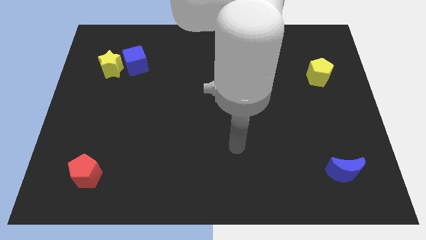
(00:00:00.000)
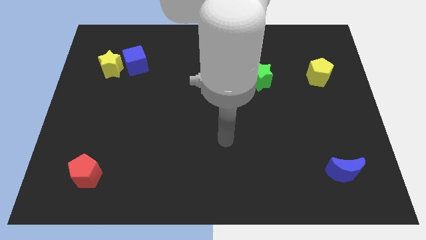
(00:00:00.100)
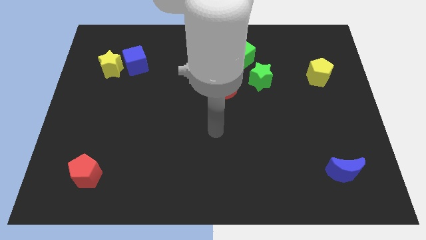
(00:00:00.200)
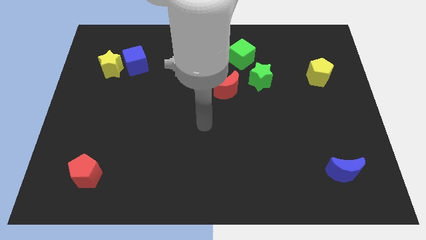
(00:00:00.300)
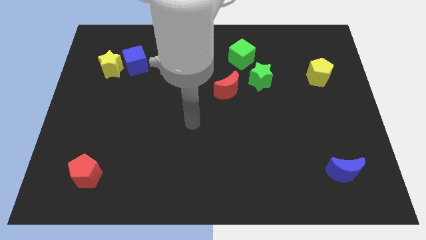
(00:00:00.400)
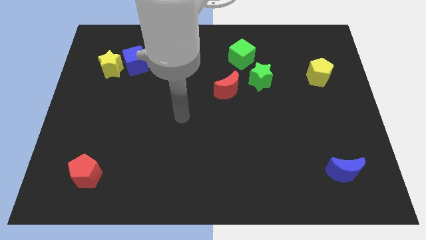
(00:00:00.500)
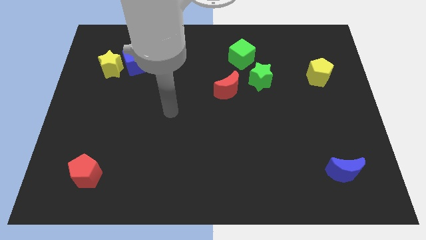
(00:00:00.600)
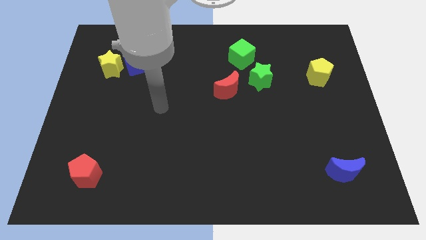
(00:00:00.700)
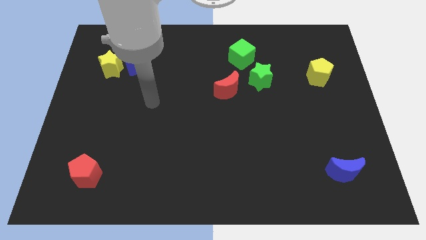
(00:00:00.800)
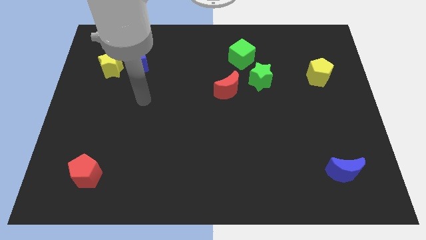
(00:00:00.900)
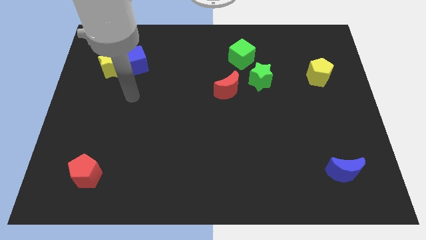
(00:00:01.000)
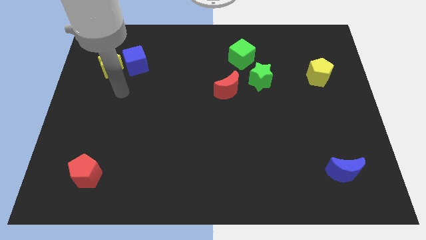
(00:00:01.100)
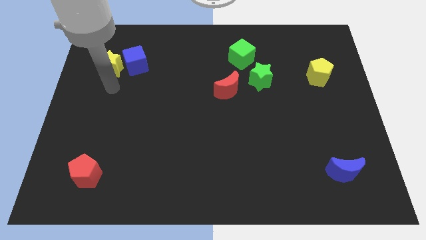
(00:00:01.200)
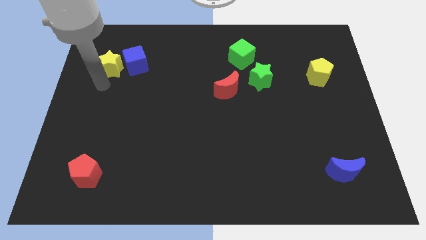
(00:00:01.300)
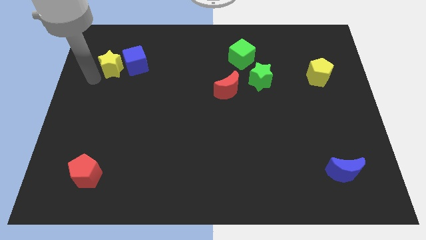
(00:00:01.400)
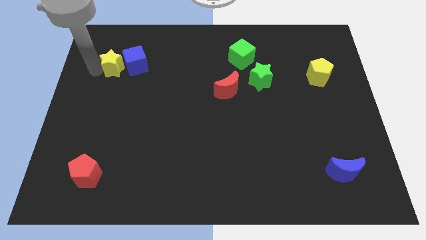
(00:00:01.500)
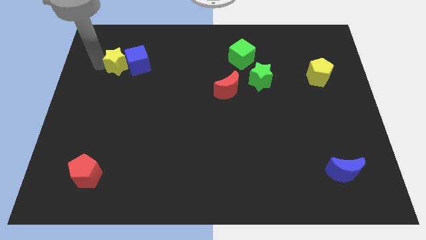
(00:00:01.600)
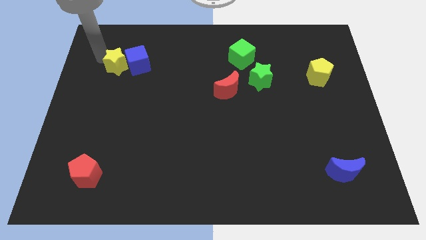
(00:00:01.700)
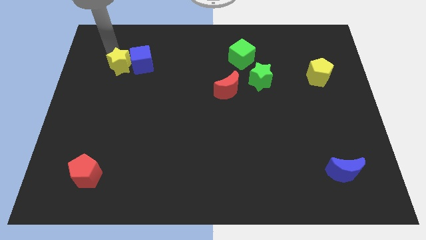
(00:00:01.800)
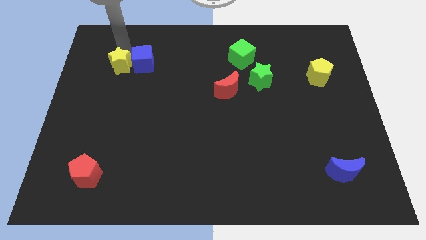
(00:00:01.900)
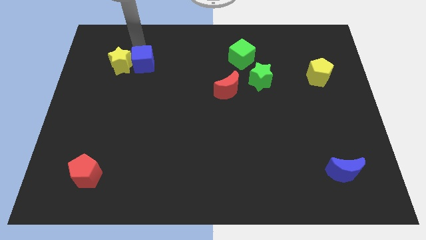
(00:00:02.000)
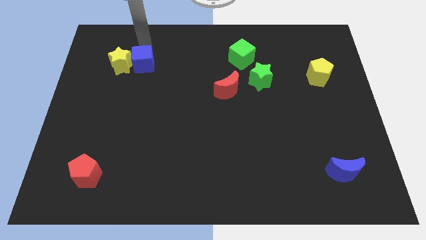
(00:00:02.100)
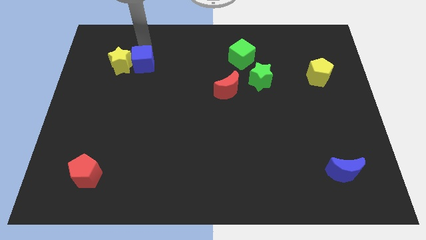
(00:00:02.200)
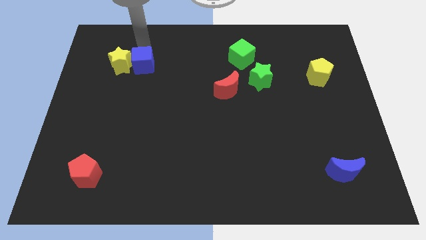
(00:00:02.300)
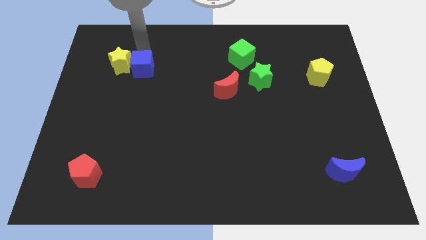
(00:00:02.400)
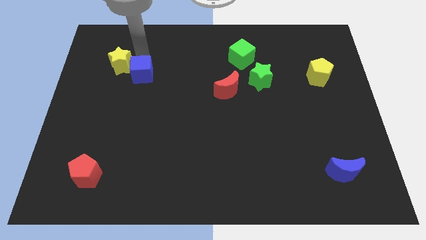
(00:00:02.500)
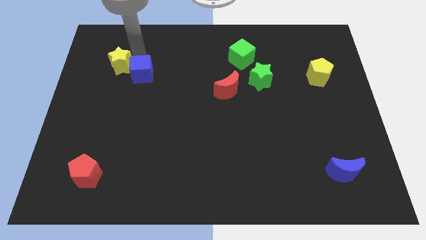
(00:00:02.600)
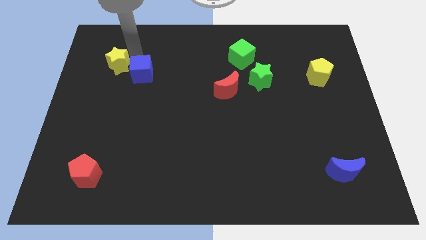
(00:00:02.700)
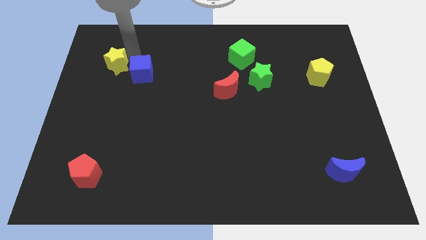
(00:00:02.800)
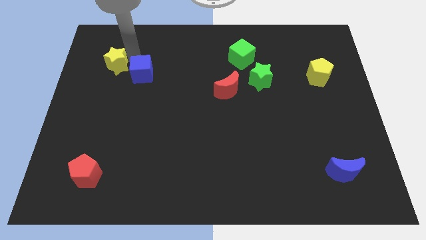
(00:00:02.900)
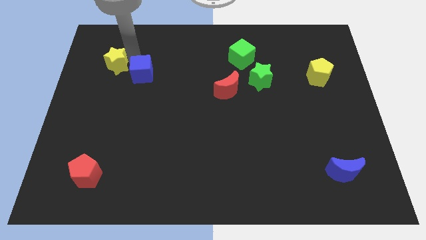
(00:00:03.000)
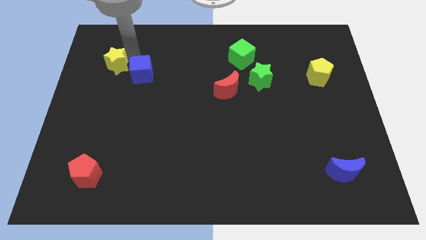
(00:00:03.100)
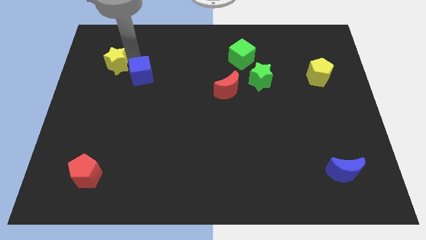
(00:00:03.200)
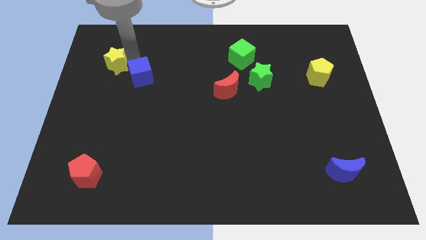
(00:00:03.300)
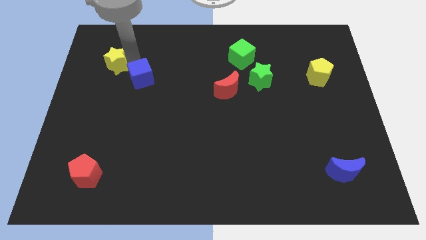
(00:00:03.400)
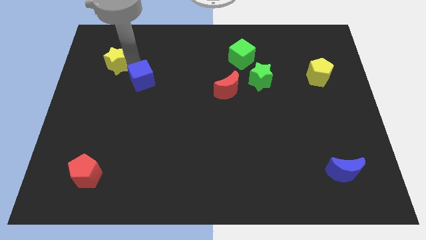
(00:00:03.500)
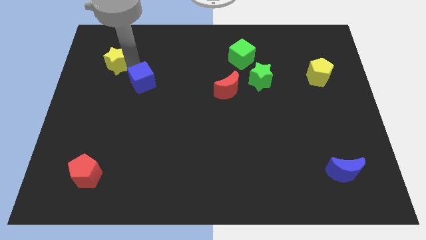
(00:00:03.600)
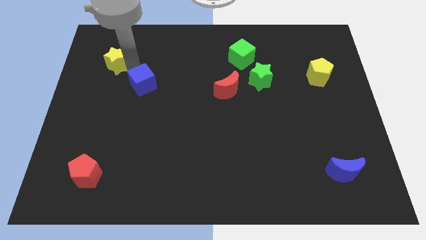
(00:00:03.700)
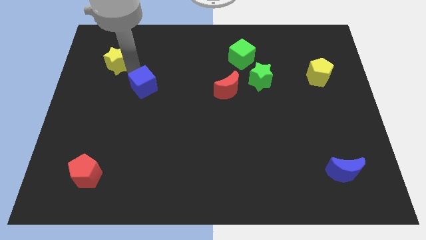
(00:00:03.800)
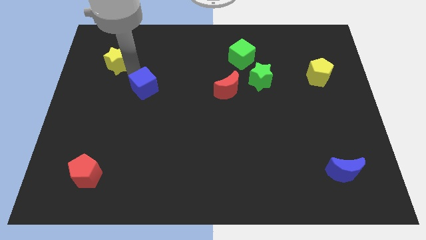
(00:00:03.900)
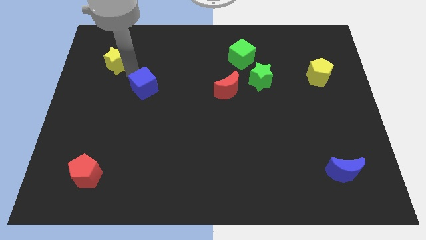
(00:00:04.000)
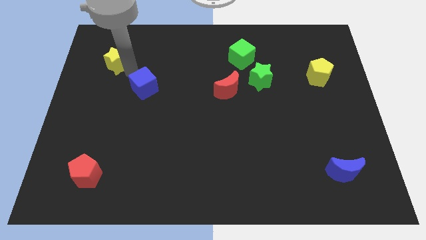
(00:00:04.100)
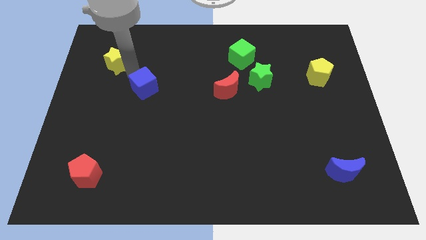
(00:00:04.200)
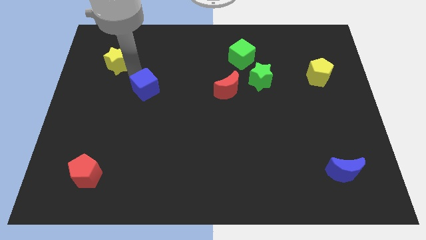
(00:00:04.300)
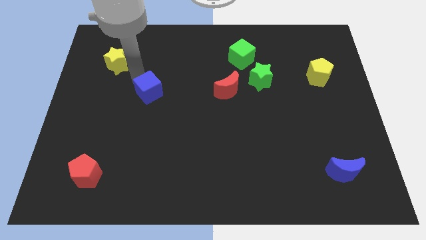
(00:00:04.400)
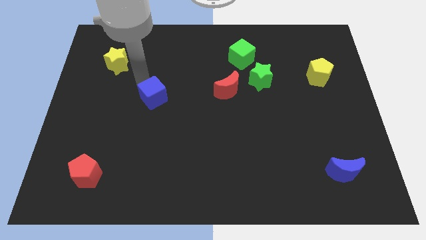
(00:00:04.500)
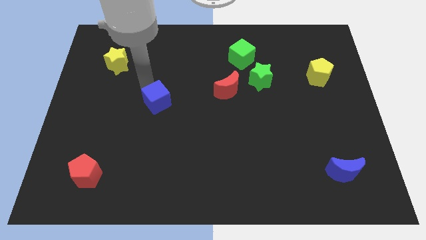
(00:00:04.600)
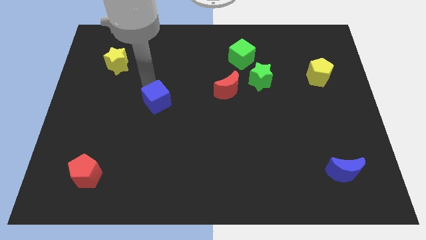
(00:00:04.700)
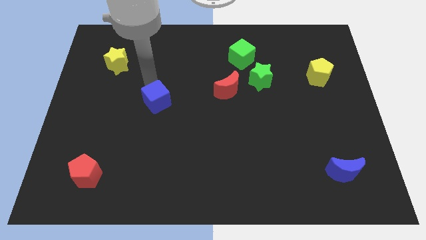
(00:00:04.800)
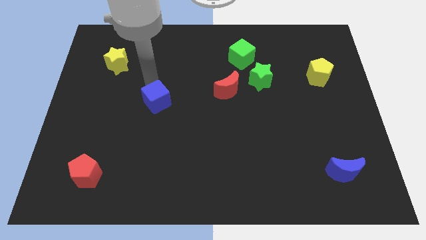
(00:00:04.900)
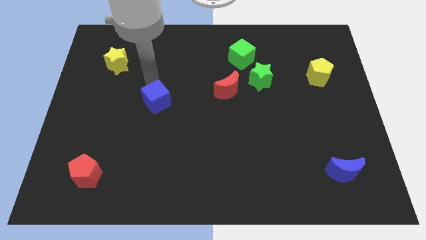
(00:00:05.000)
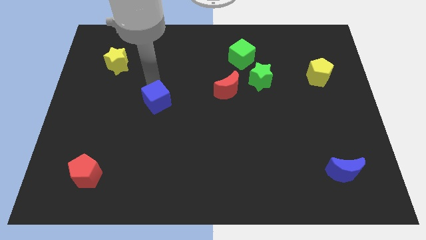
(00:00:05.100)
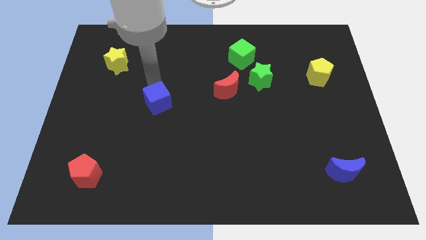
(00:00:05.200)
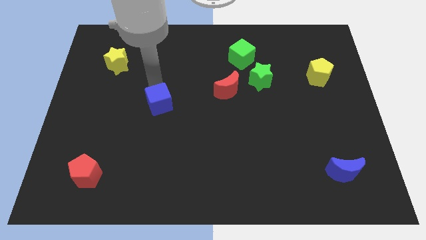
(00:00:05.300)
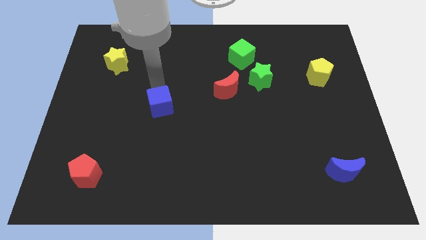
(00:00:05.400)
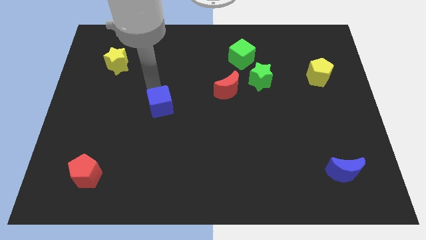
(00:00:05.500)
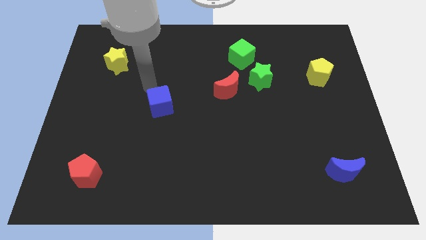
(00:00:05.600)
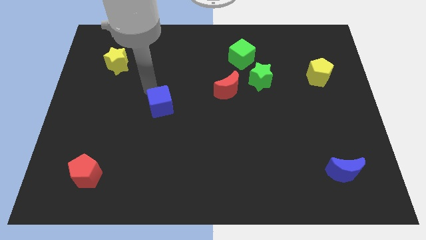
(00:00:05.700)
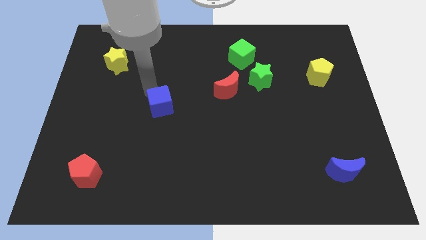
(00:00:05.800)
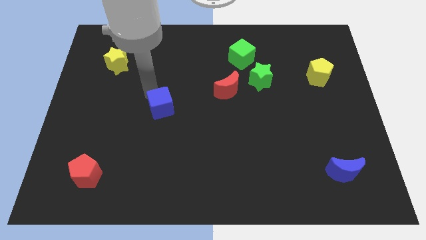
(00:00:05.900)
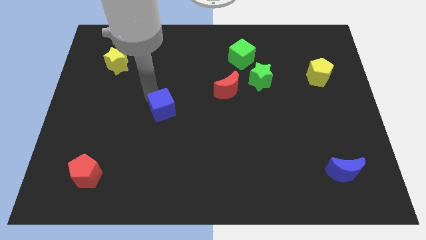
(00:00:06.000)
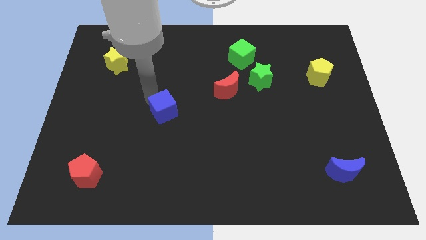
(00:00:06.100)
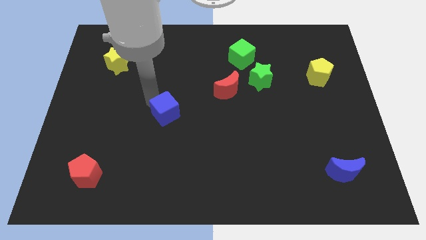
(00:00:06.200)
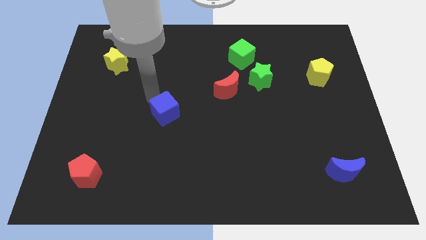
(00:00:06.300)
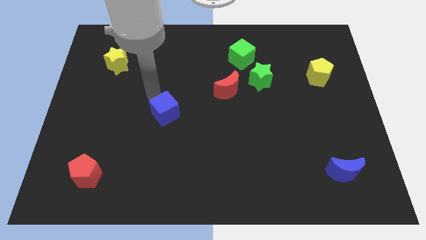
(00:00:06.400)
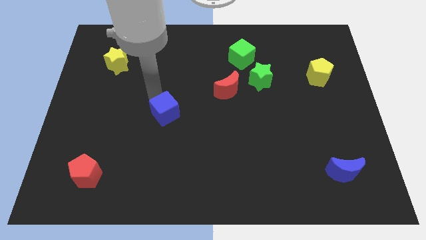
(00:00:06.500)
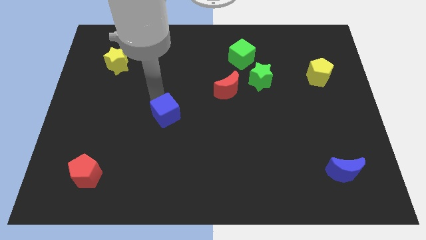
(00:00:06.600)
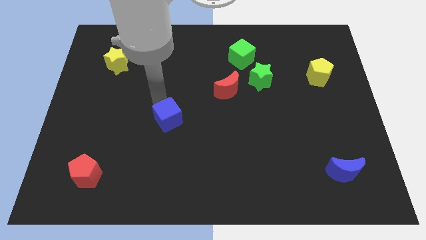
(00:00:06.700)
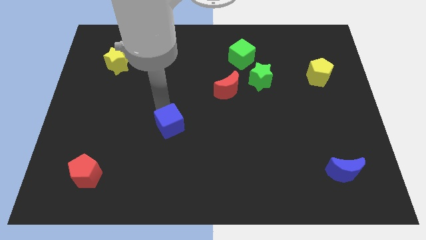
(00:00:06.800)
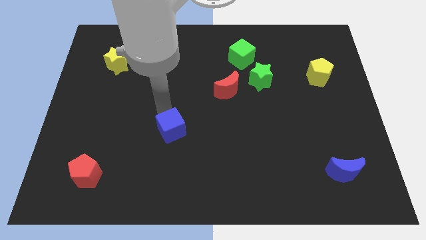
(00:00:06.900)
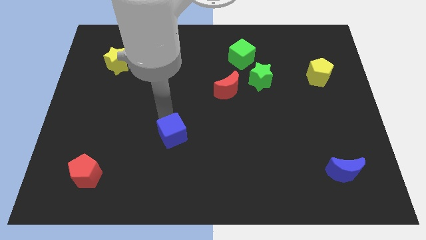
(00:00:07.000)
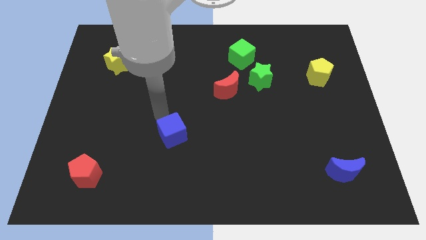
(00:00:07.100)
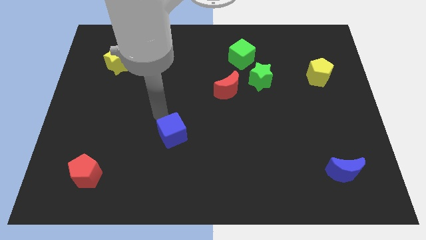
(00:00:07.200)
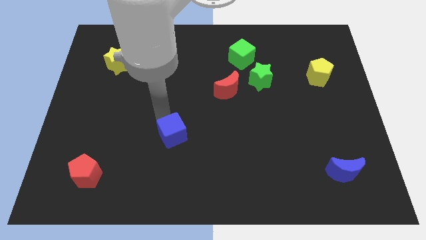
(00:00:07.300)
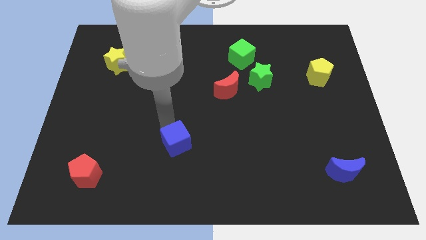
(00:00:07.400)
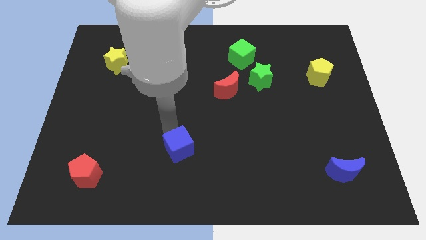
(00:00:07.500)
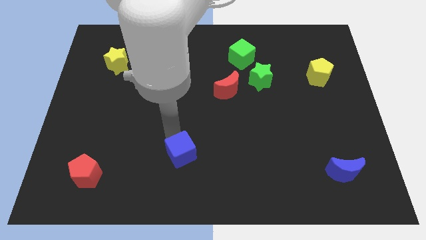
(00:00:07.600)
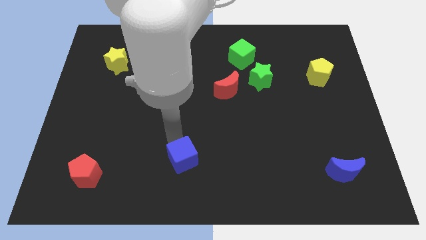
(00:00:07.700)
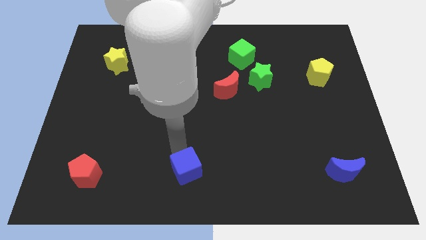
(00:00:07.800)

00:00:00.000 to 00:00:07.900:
move the blue cube to the bottom
